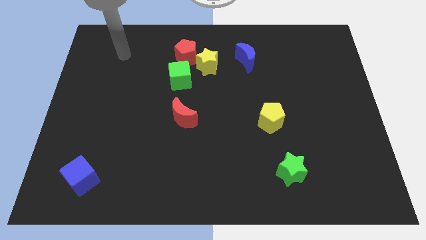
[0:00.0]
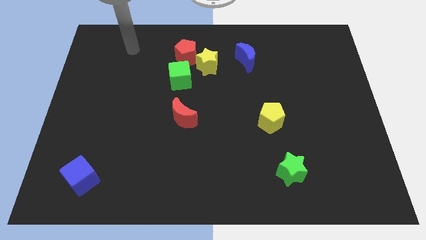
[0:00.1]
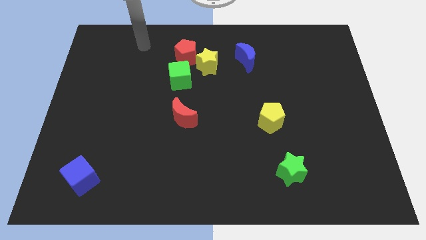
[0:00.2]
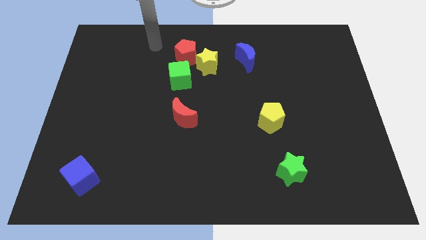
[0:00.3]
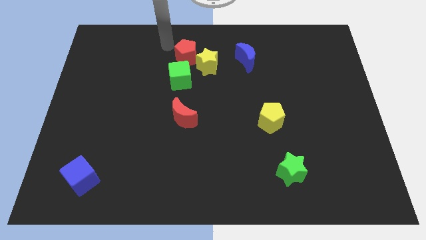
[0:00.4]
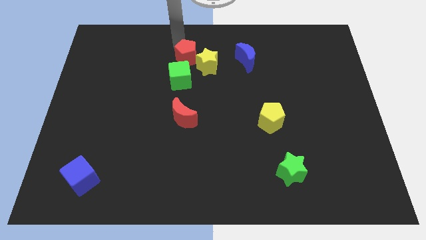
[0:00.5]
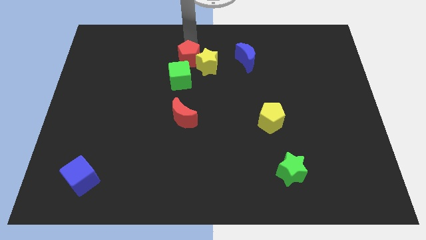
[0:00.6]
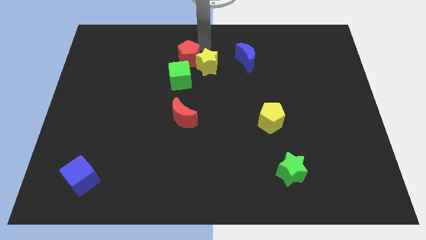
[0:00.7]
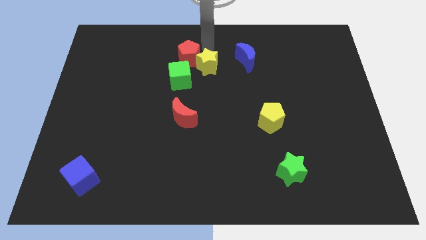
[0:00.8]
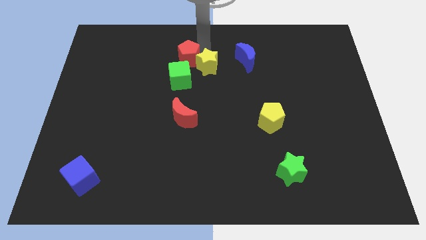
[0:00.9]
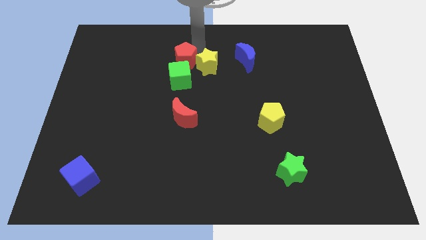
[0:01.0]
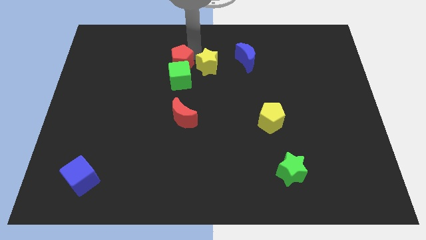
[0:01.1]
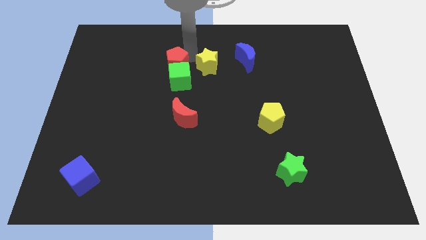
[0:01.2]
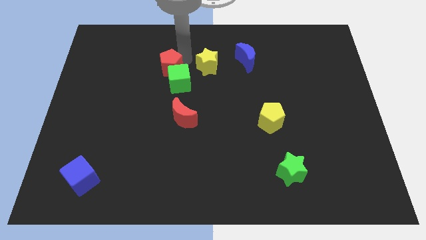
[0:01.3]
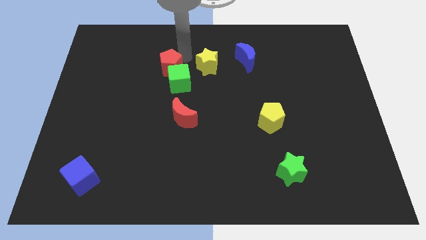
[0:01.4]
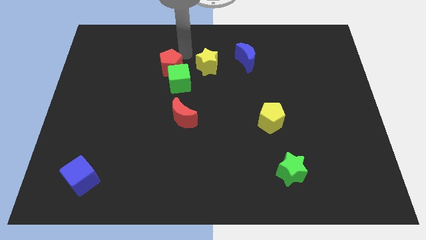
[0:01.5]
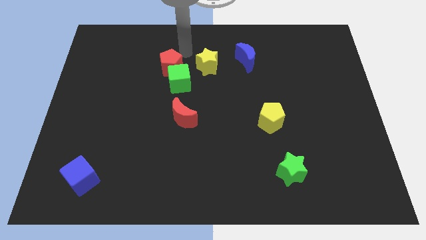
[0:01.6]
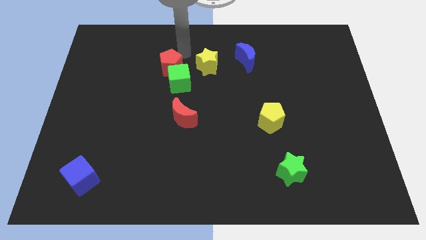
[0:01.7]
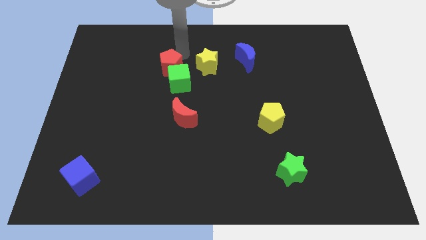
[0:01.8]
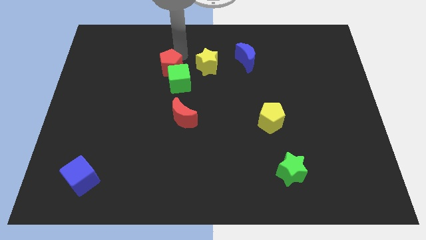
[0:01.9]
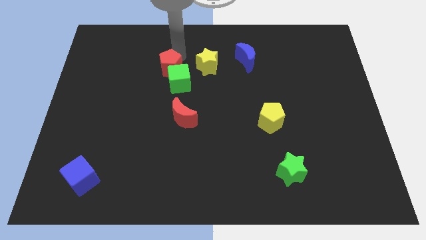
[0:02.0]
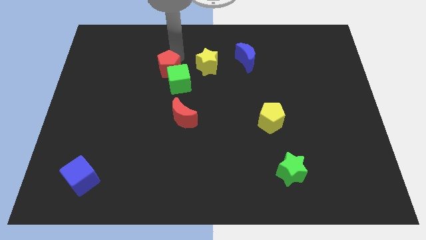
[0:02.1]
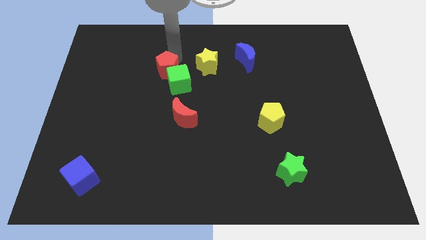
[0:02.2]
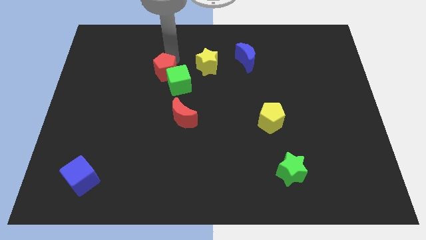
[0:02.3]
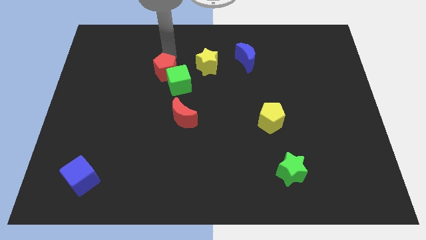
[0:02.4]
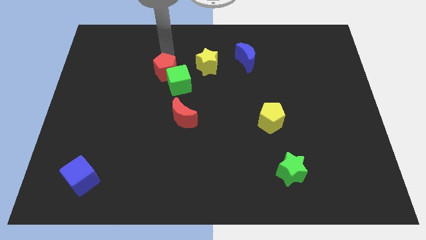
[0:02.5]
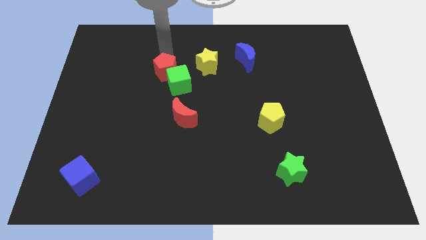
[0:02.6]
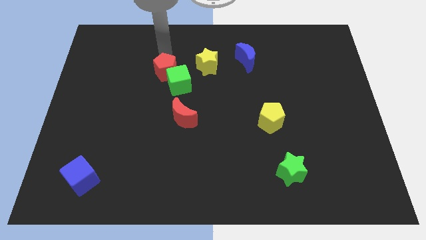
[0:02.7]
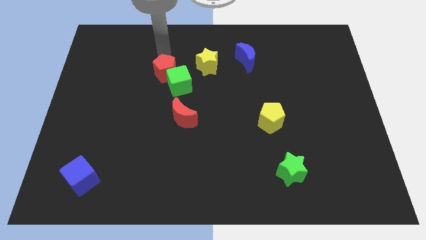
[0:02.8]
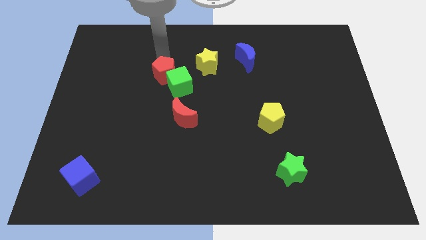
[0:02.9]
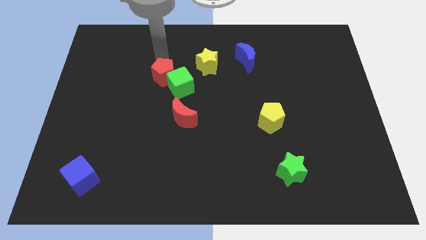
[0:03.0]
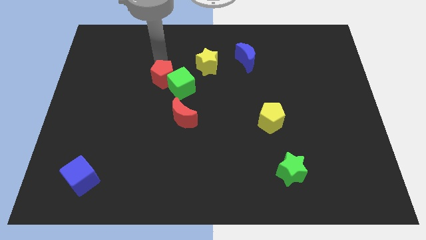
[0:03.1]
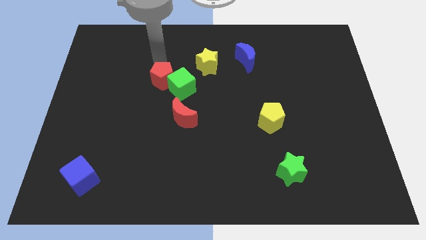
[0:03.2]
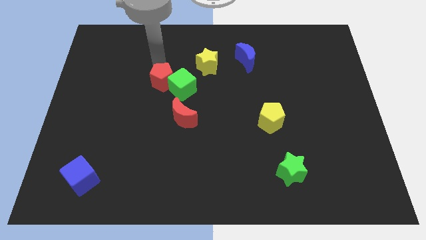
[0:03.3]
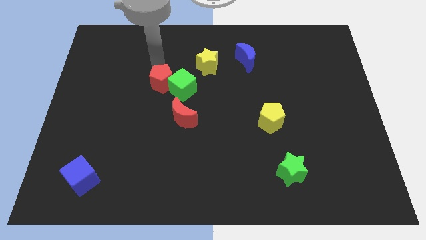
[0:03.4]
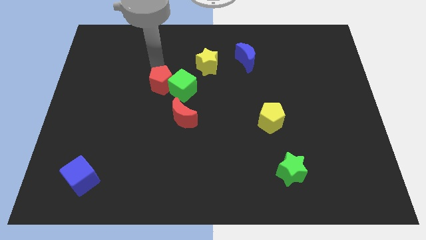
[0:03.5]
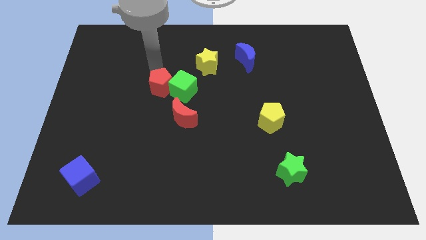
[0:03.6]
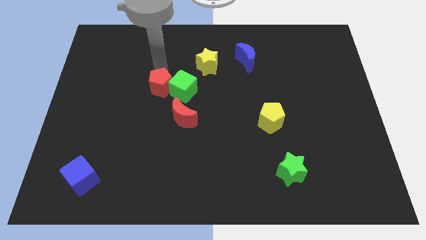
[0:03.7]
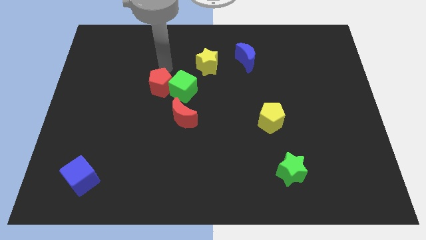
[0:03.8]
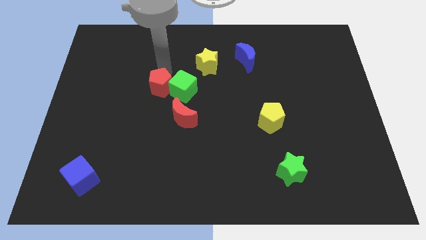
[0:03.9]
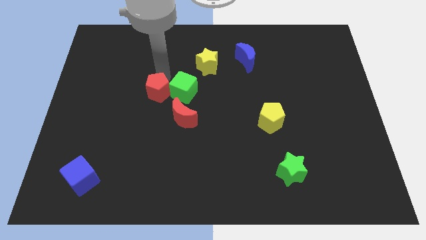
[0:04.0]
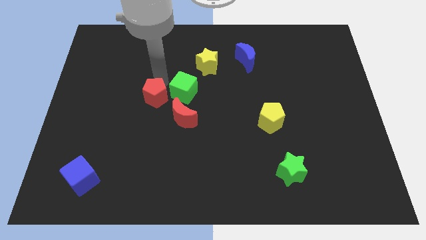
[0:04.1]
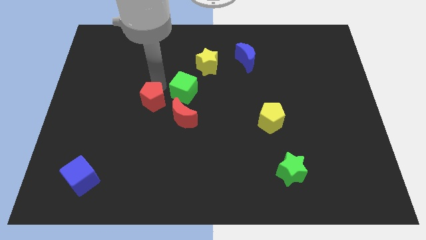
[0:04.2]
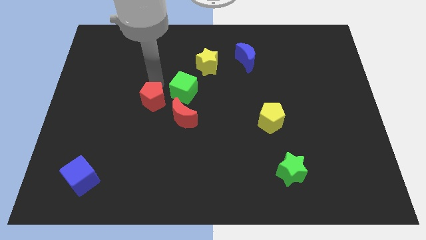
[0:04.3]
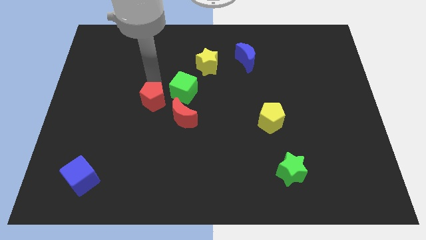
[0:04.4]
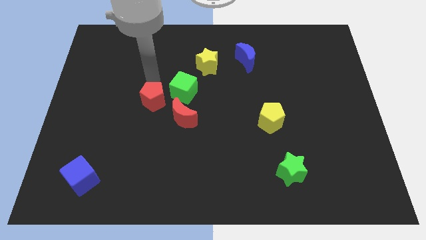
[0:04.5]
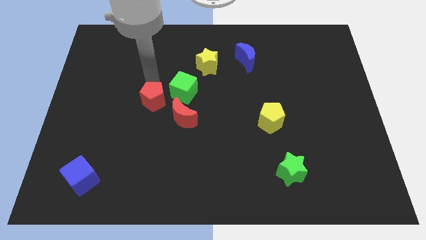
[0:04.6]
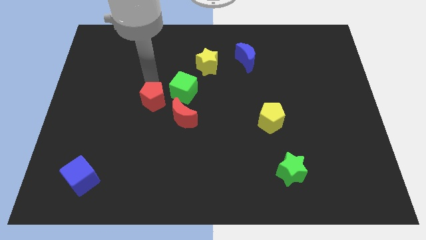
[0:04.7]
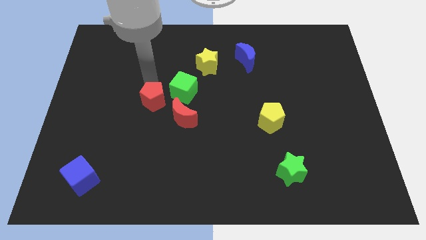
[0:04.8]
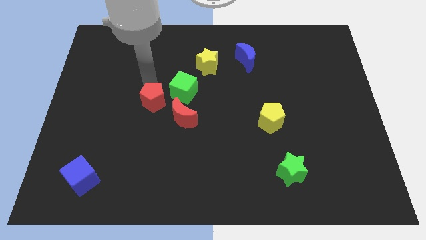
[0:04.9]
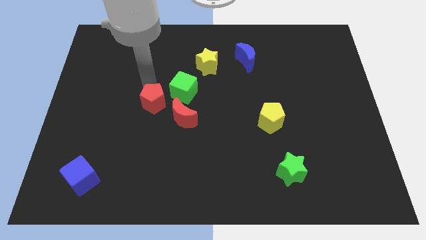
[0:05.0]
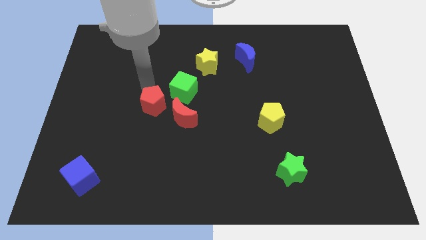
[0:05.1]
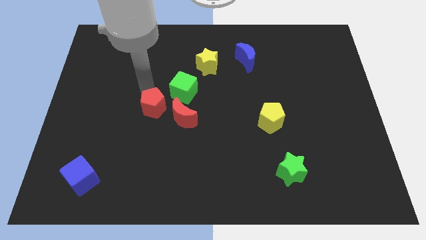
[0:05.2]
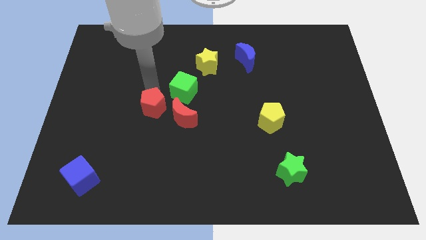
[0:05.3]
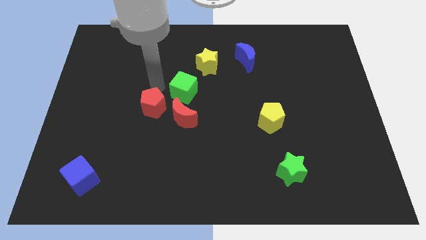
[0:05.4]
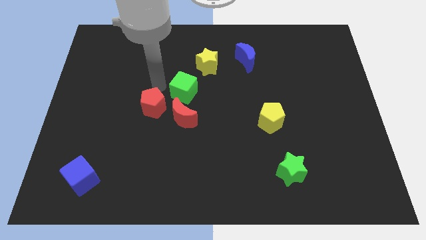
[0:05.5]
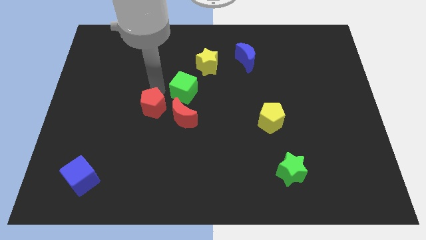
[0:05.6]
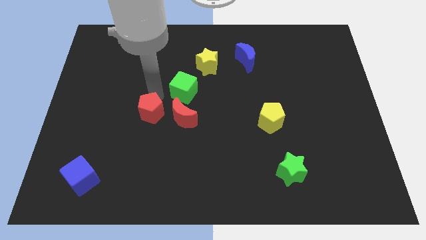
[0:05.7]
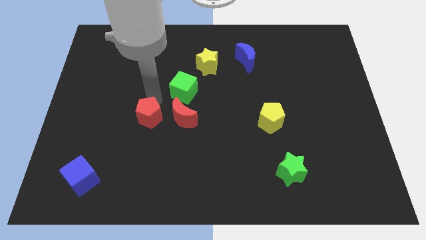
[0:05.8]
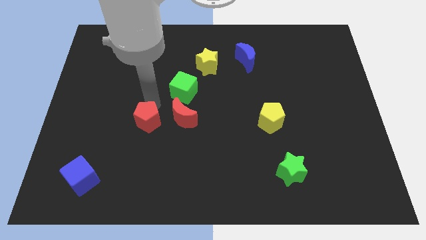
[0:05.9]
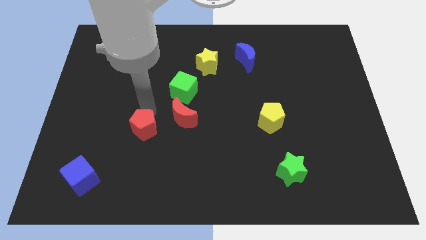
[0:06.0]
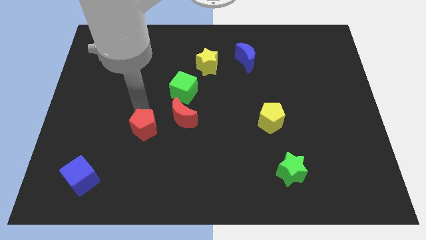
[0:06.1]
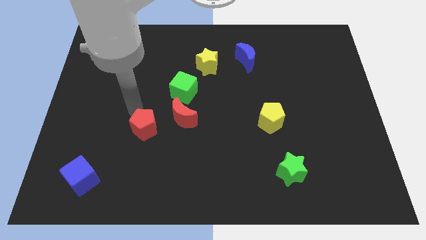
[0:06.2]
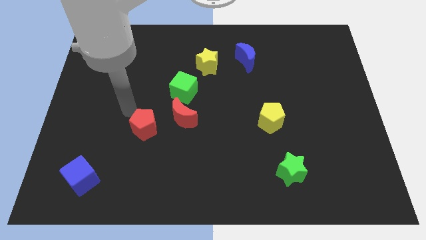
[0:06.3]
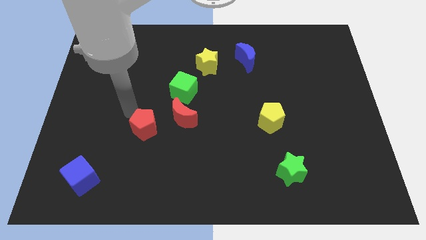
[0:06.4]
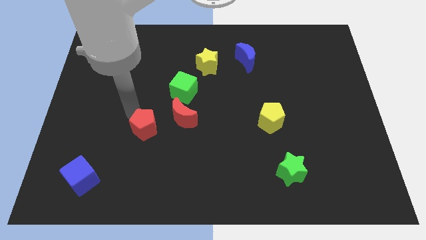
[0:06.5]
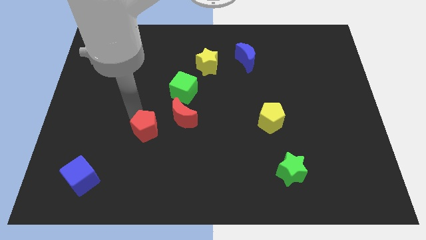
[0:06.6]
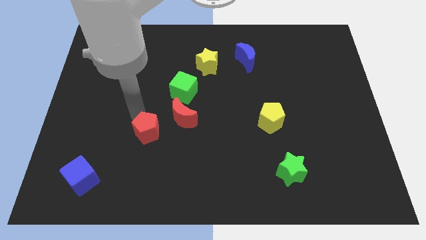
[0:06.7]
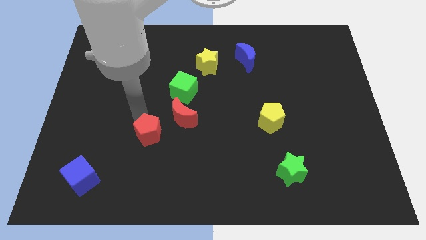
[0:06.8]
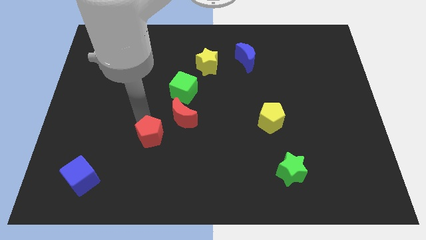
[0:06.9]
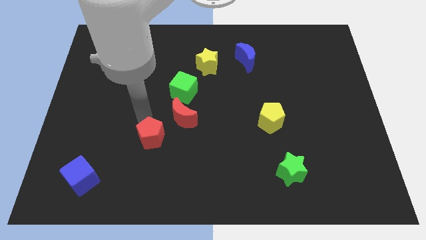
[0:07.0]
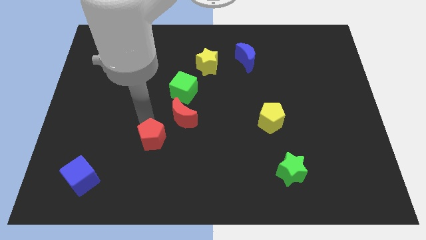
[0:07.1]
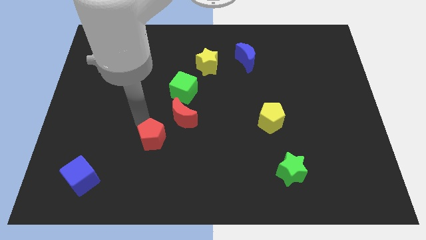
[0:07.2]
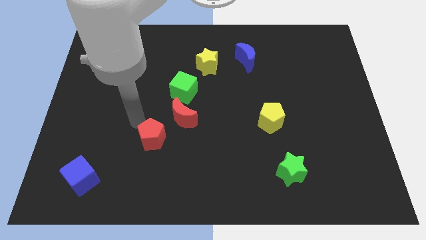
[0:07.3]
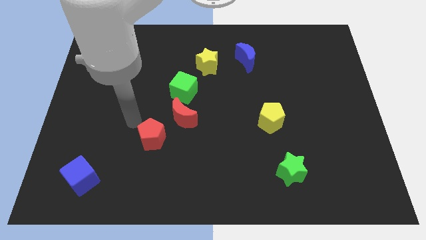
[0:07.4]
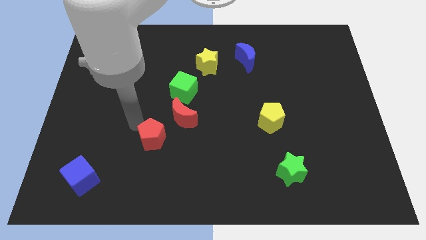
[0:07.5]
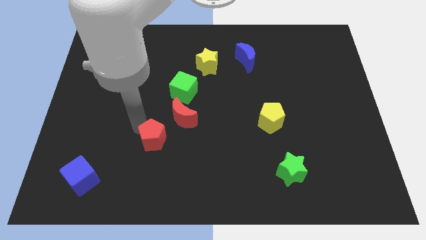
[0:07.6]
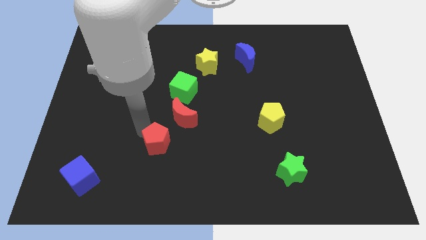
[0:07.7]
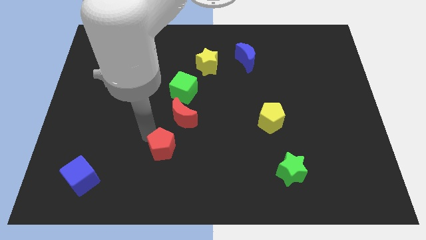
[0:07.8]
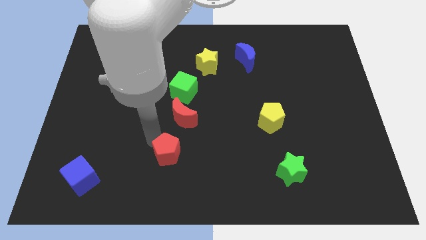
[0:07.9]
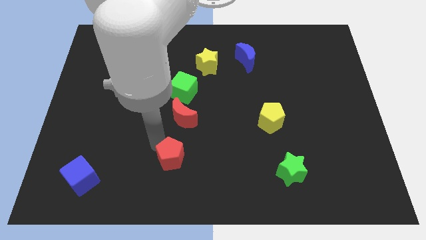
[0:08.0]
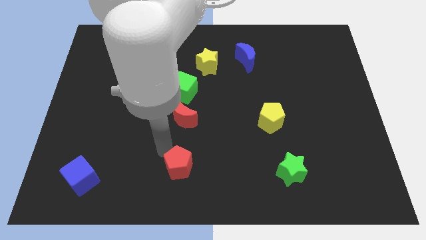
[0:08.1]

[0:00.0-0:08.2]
put the red pentagon to the bottom side
